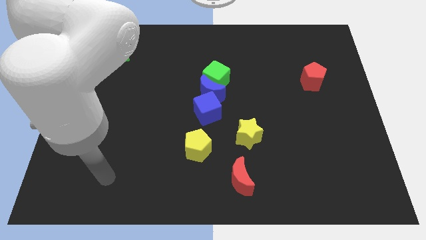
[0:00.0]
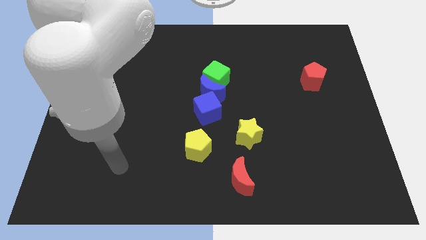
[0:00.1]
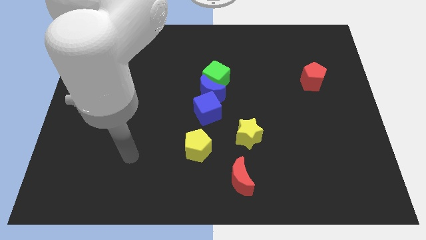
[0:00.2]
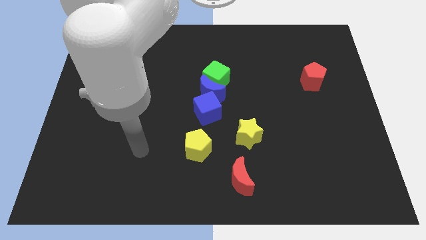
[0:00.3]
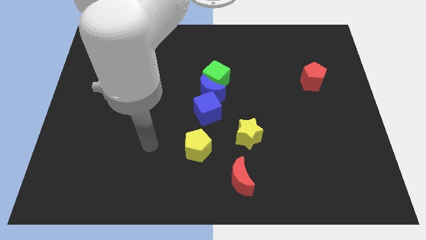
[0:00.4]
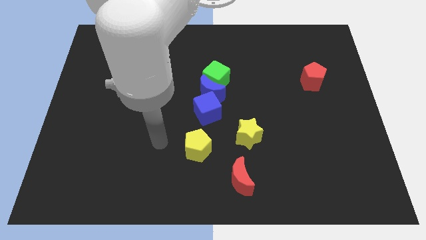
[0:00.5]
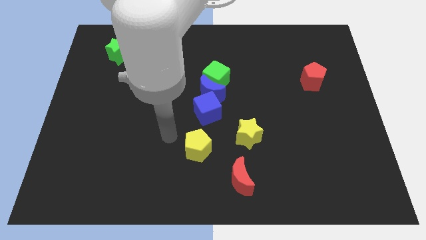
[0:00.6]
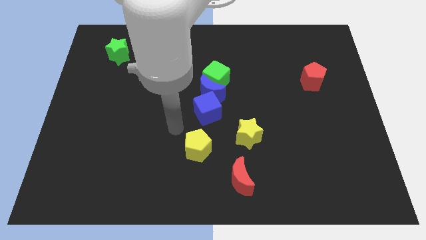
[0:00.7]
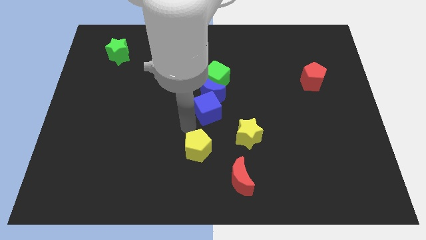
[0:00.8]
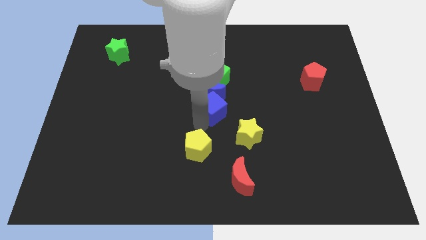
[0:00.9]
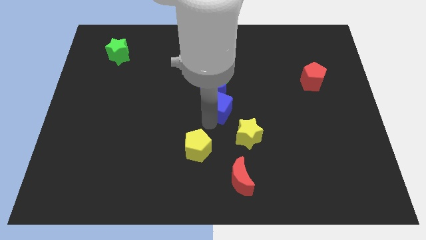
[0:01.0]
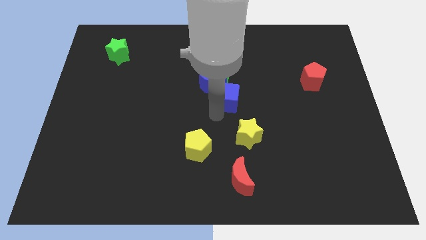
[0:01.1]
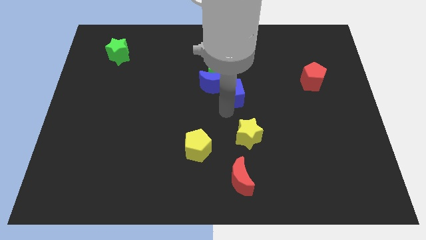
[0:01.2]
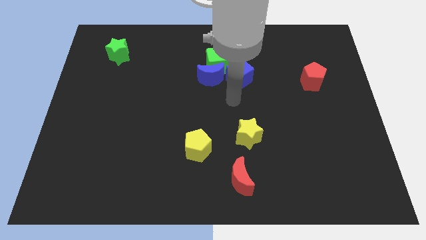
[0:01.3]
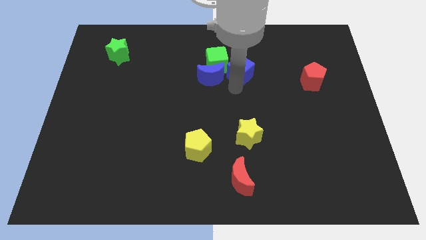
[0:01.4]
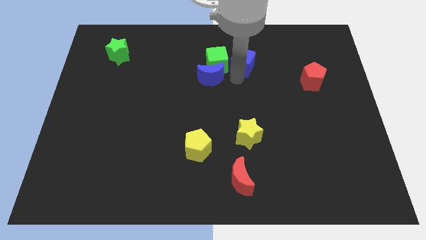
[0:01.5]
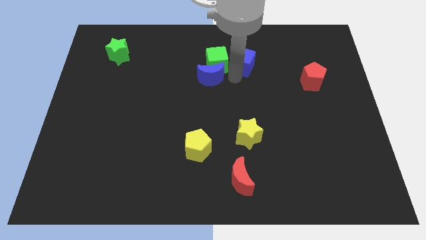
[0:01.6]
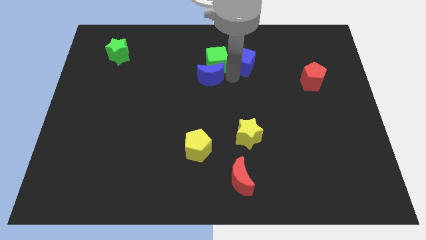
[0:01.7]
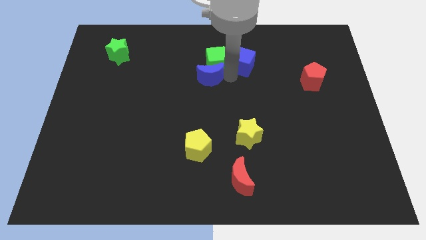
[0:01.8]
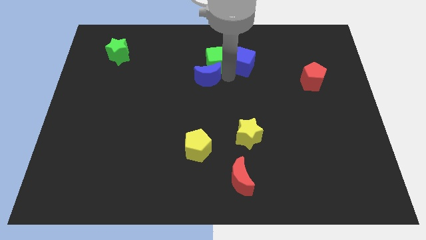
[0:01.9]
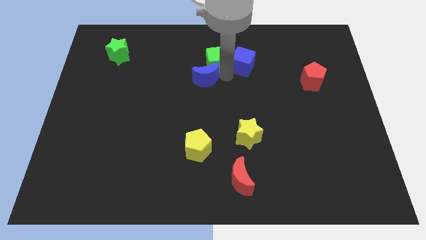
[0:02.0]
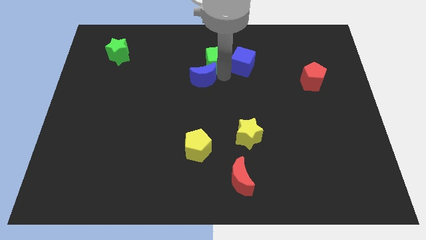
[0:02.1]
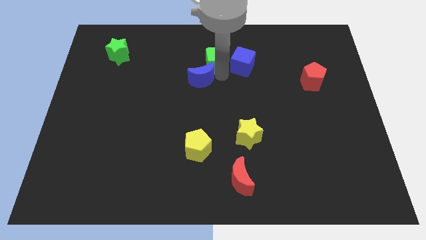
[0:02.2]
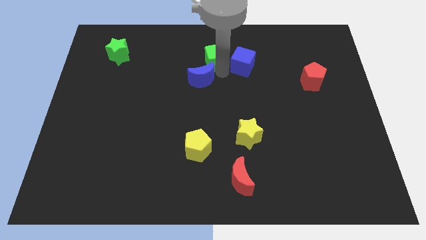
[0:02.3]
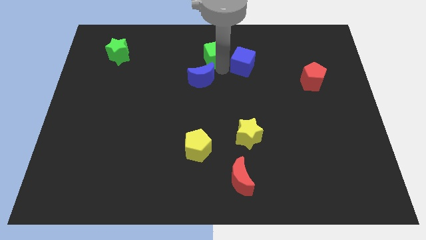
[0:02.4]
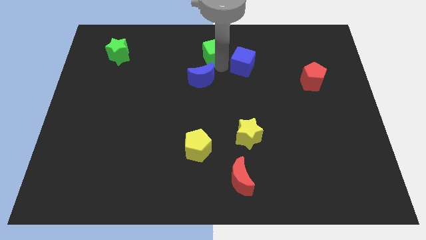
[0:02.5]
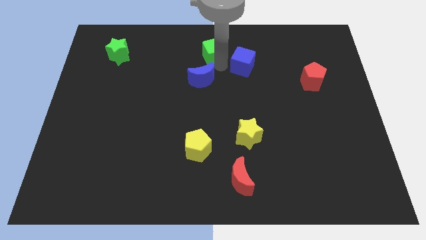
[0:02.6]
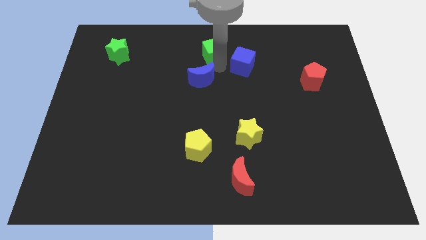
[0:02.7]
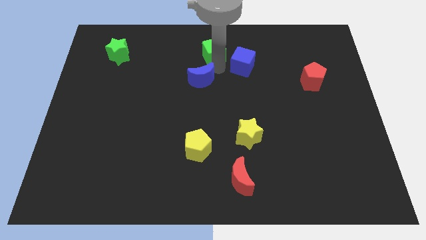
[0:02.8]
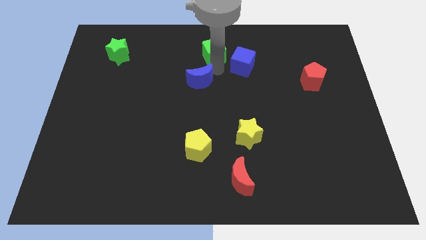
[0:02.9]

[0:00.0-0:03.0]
move the blue moon away from the green cube and blue cube

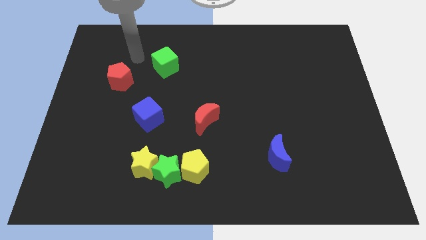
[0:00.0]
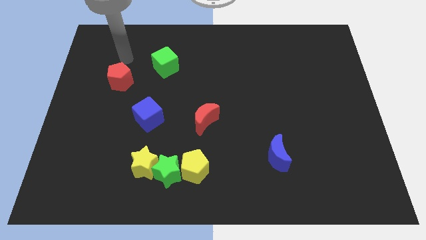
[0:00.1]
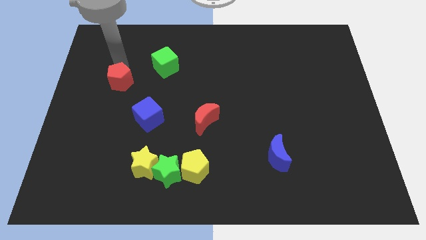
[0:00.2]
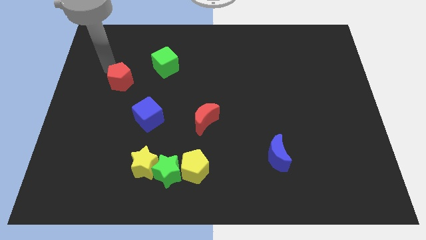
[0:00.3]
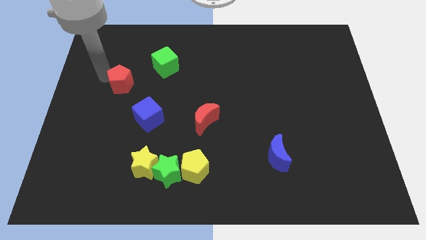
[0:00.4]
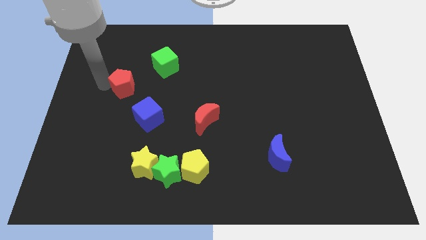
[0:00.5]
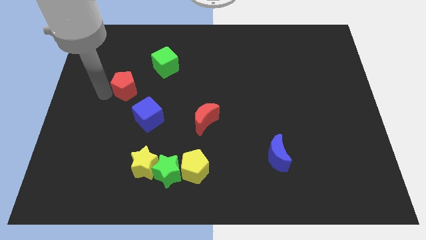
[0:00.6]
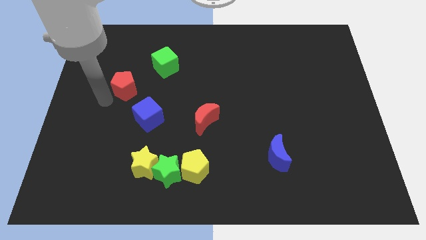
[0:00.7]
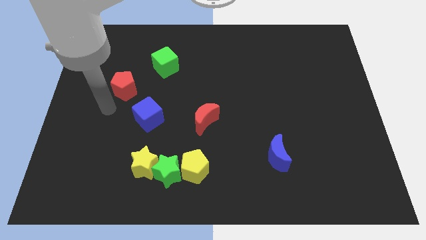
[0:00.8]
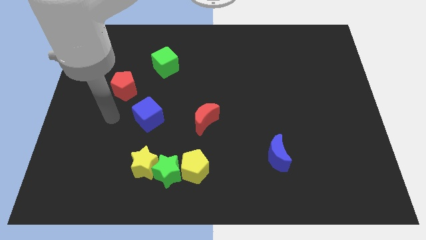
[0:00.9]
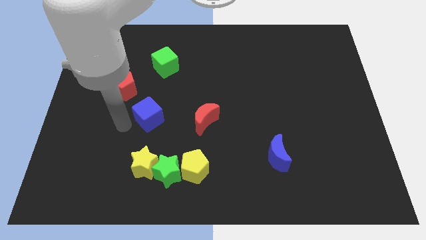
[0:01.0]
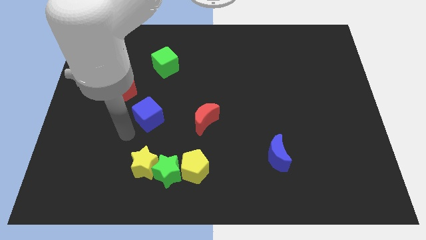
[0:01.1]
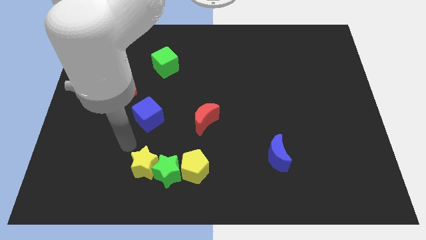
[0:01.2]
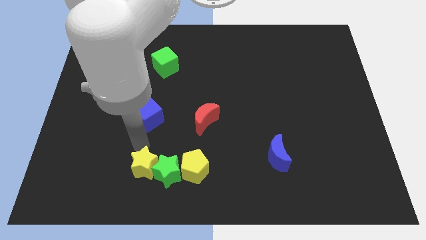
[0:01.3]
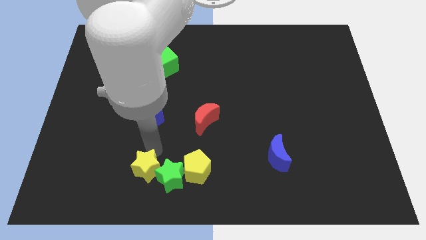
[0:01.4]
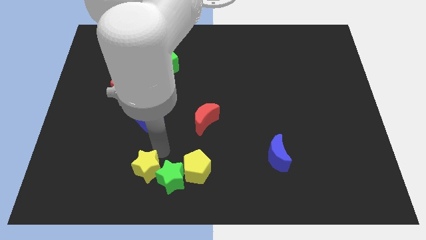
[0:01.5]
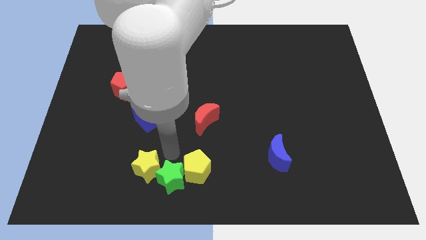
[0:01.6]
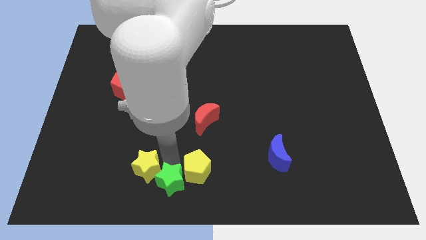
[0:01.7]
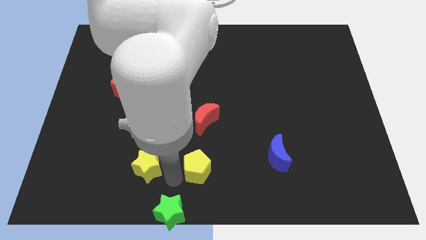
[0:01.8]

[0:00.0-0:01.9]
pull the yellow star apart from the green star

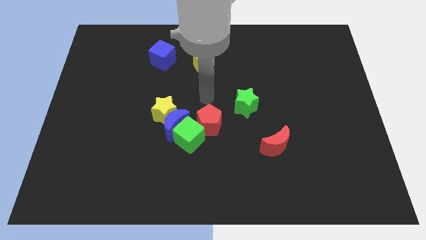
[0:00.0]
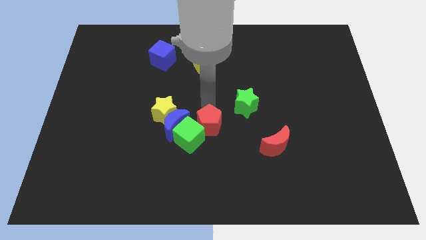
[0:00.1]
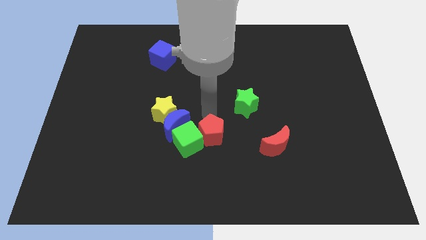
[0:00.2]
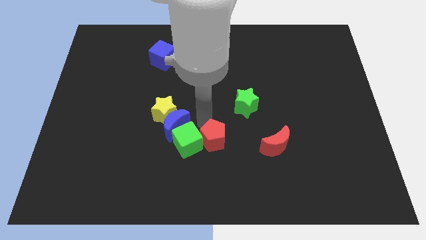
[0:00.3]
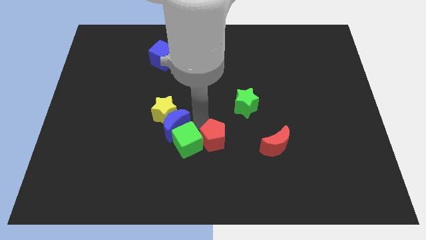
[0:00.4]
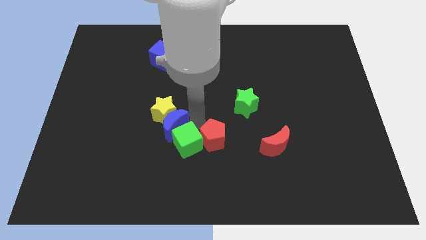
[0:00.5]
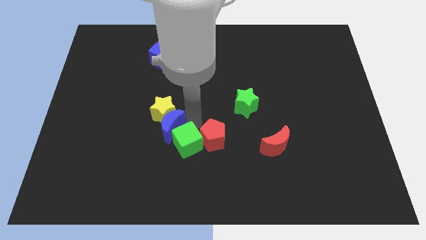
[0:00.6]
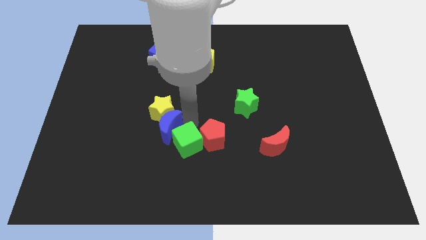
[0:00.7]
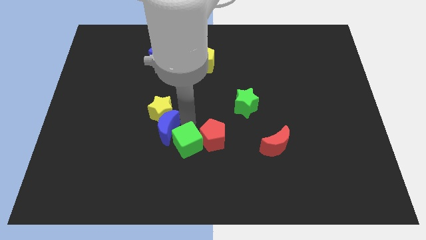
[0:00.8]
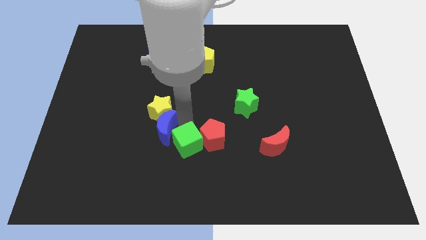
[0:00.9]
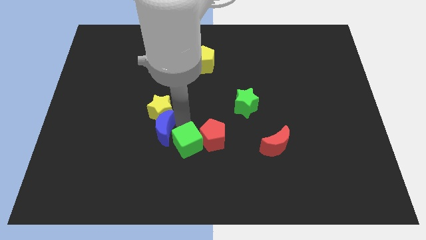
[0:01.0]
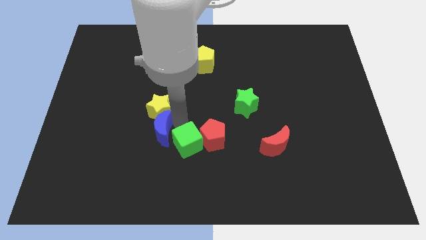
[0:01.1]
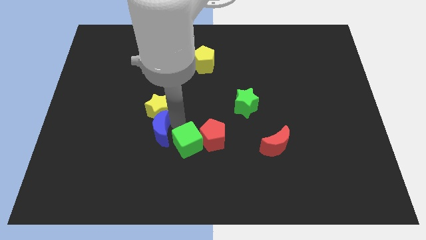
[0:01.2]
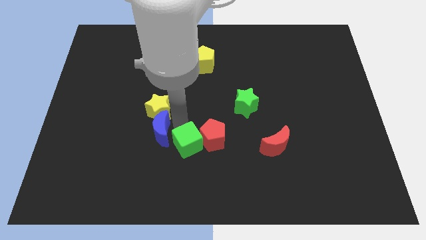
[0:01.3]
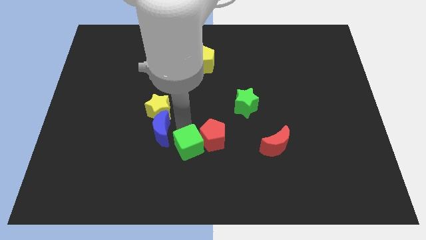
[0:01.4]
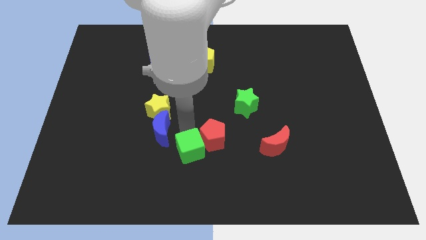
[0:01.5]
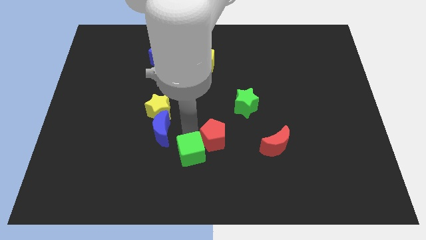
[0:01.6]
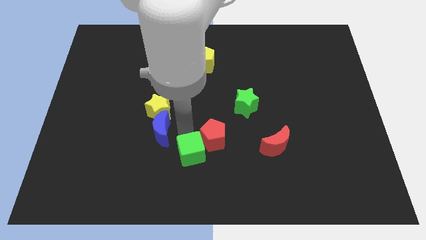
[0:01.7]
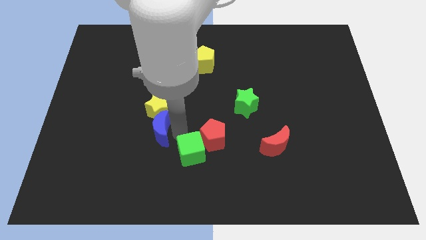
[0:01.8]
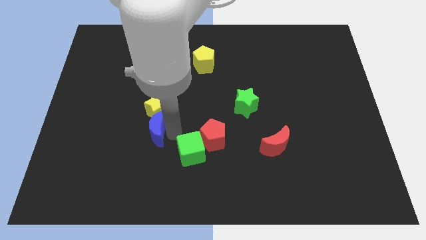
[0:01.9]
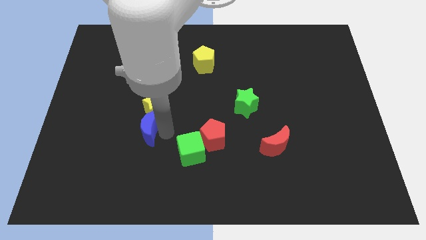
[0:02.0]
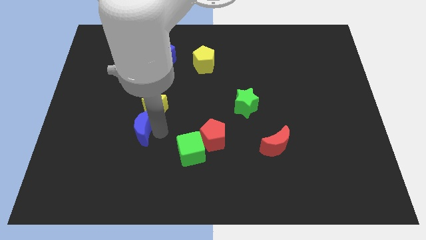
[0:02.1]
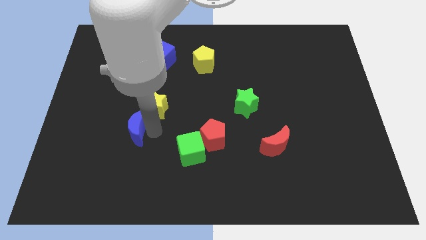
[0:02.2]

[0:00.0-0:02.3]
pull the blue moon apart from the group of blocks

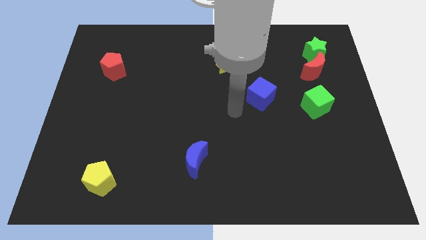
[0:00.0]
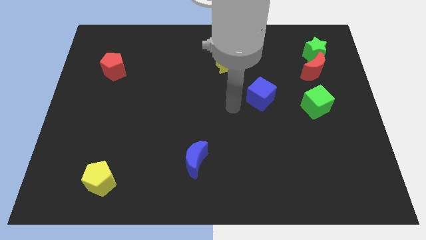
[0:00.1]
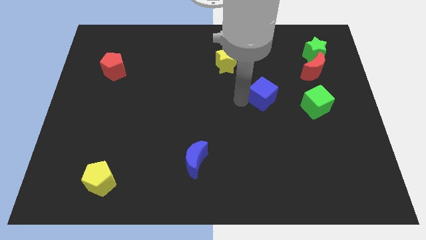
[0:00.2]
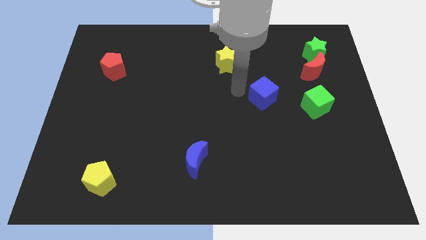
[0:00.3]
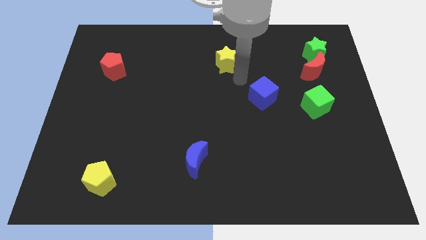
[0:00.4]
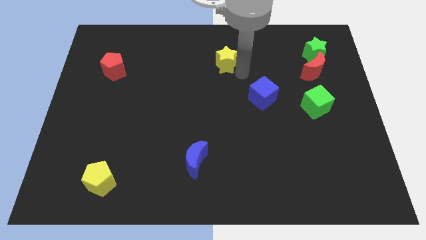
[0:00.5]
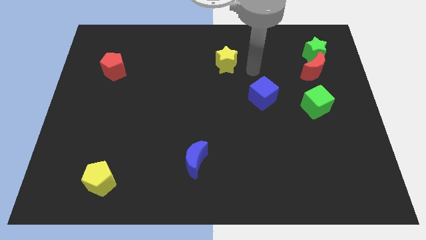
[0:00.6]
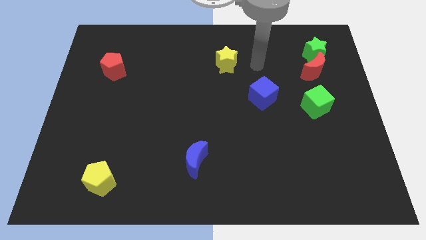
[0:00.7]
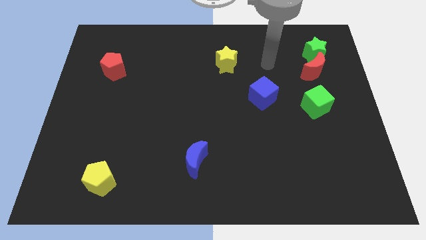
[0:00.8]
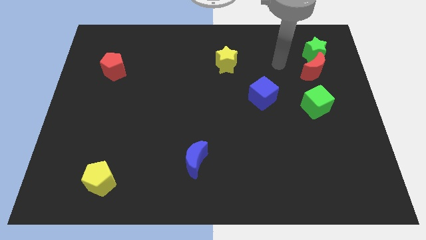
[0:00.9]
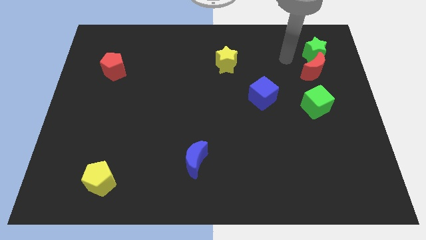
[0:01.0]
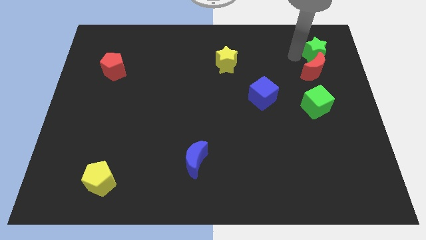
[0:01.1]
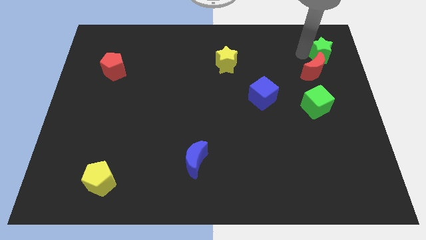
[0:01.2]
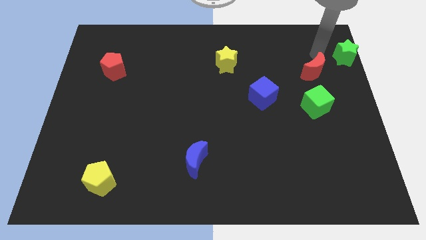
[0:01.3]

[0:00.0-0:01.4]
move the red moon away from the green star

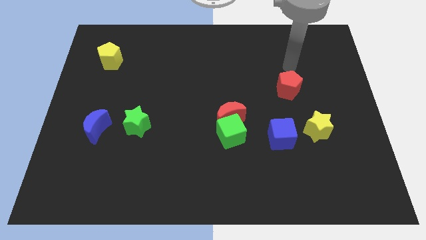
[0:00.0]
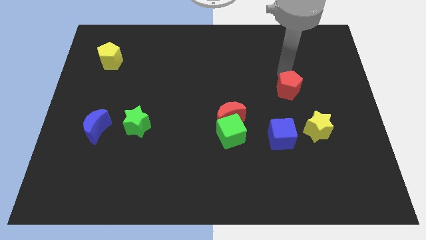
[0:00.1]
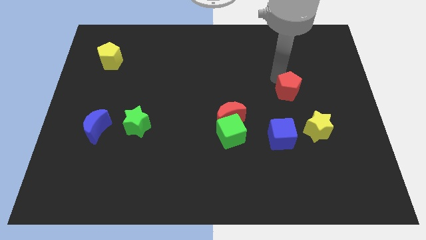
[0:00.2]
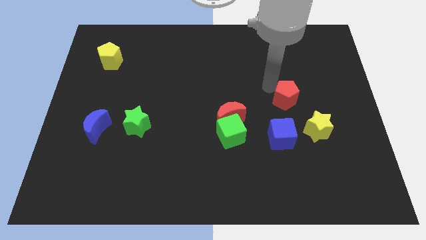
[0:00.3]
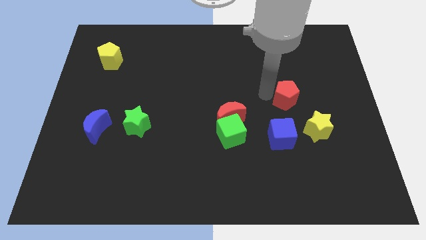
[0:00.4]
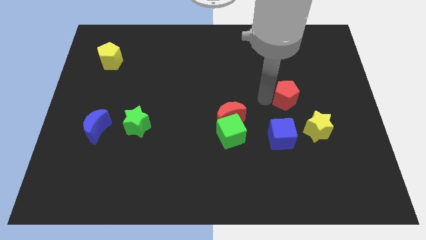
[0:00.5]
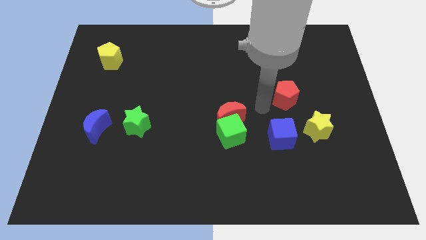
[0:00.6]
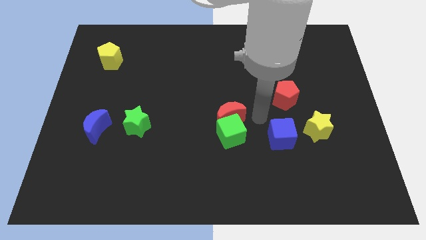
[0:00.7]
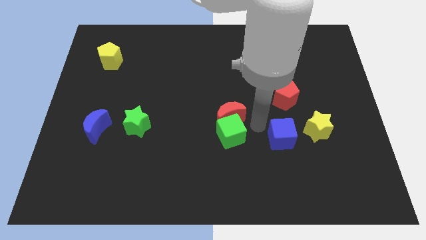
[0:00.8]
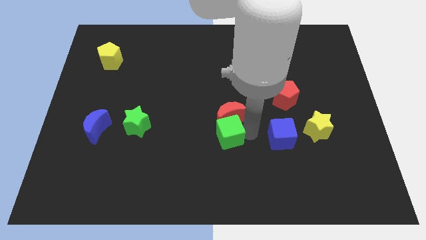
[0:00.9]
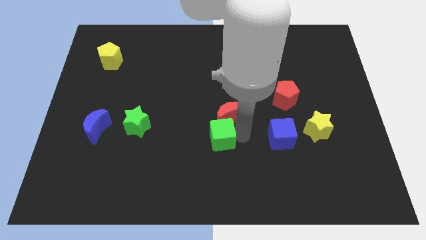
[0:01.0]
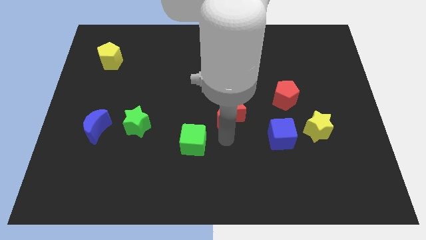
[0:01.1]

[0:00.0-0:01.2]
pull the red moon apart from the green cube
